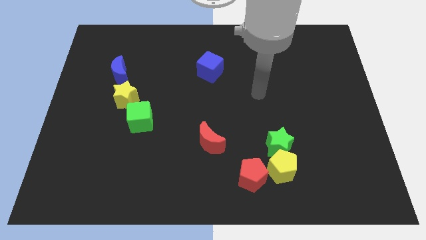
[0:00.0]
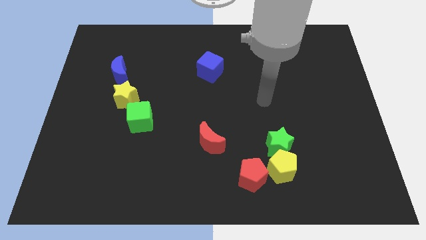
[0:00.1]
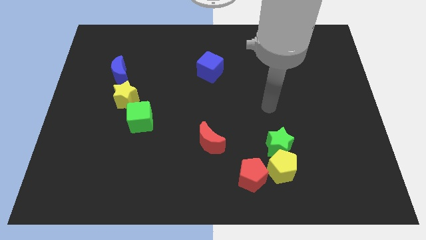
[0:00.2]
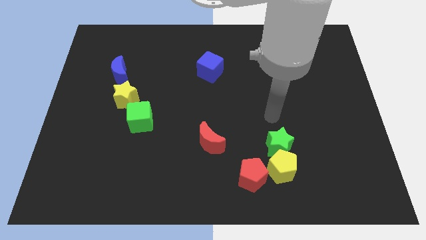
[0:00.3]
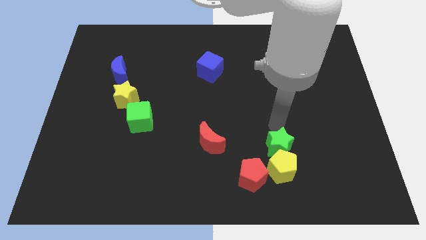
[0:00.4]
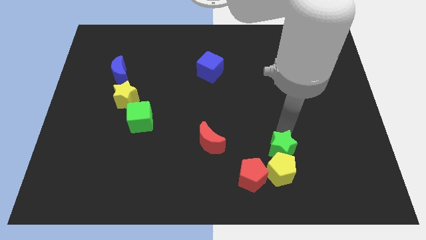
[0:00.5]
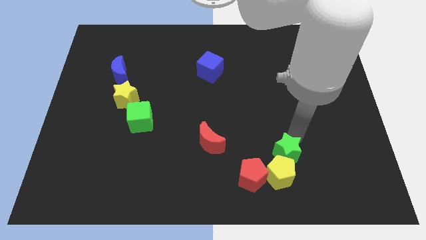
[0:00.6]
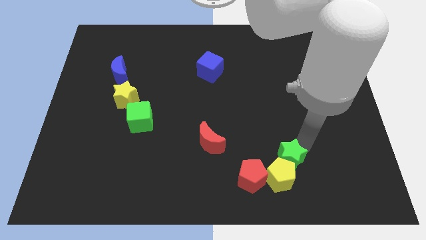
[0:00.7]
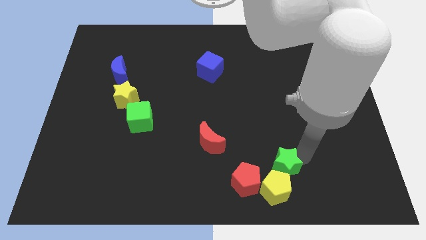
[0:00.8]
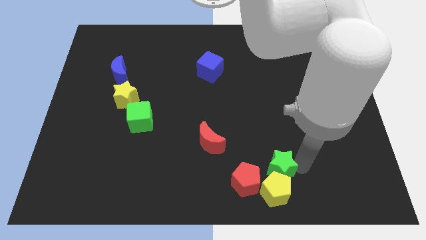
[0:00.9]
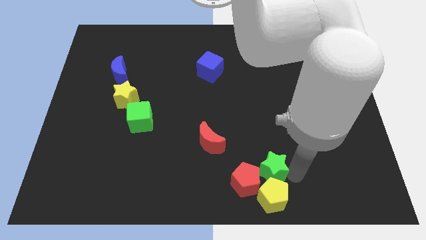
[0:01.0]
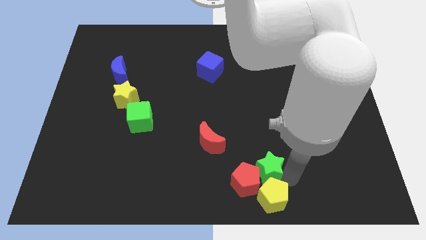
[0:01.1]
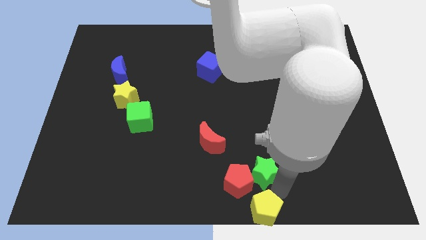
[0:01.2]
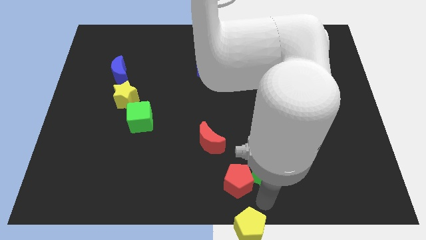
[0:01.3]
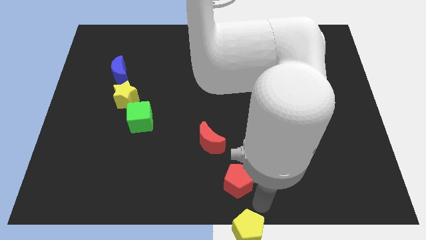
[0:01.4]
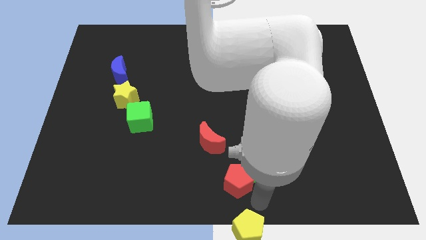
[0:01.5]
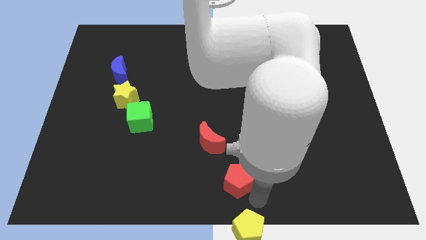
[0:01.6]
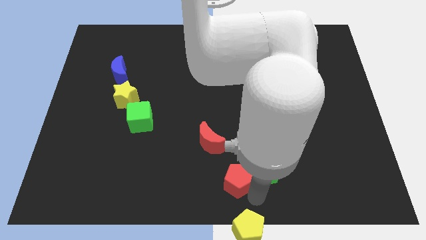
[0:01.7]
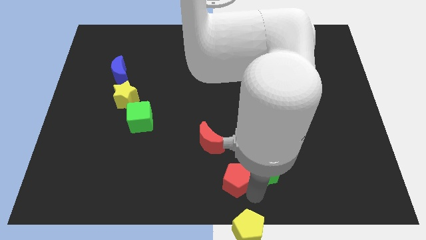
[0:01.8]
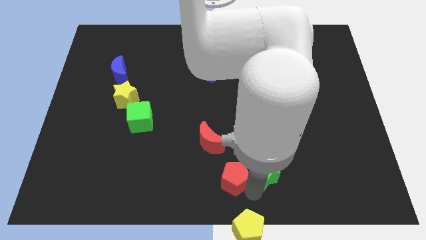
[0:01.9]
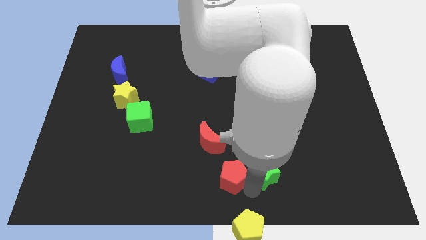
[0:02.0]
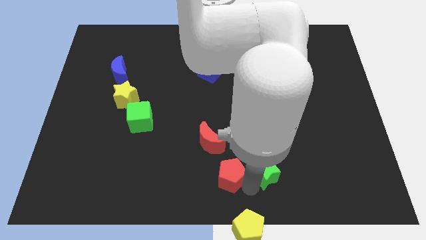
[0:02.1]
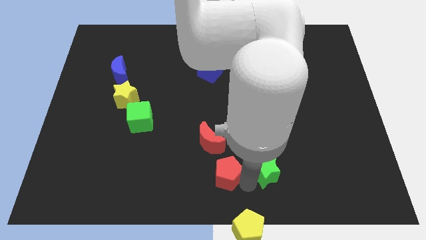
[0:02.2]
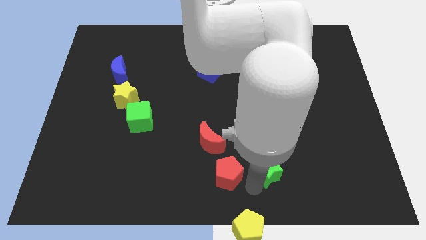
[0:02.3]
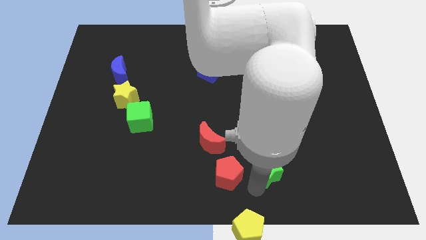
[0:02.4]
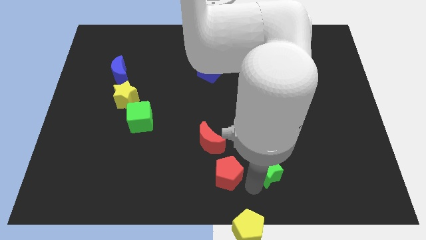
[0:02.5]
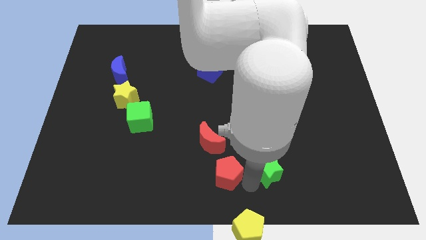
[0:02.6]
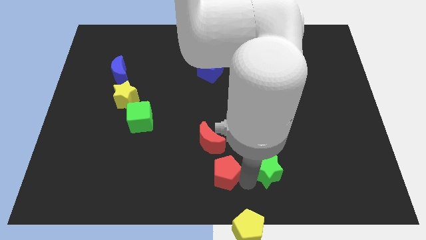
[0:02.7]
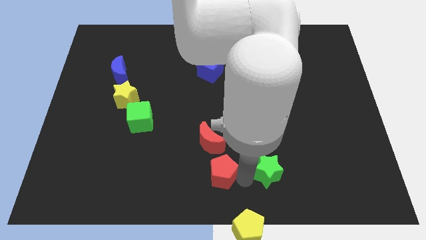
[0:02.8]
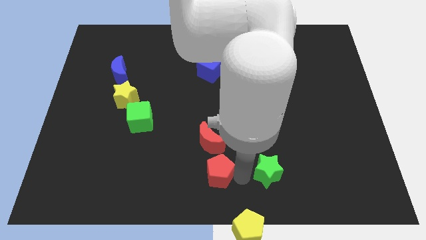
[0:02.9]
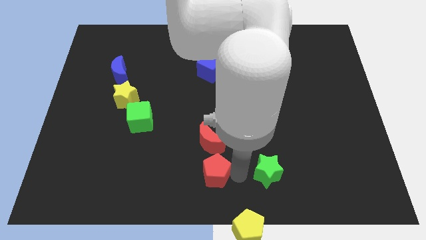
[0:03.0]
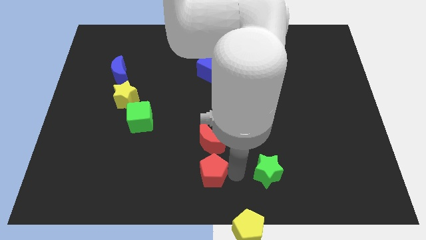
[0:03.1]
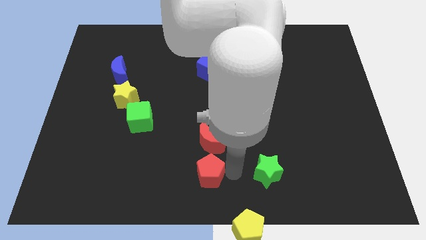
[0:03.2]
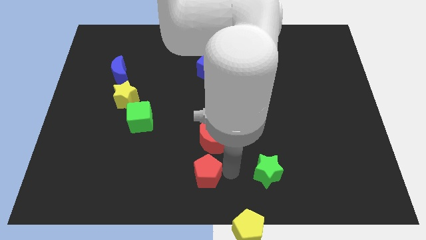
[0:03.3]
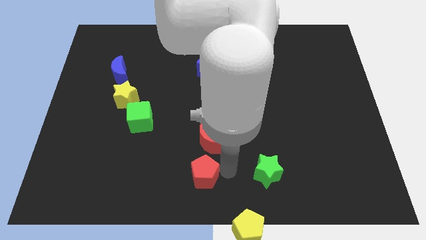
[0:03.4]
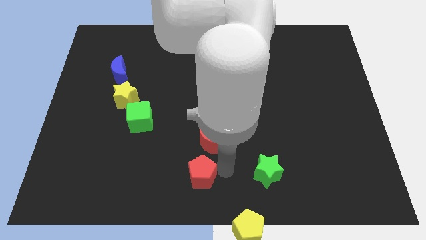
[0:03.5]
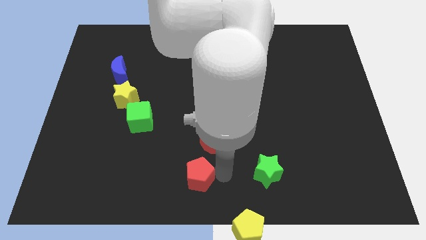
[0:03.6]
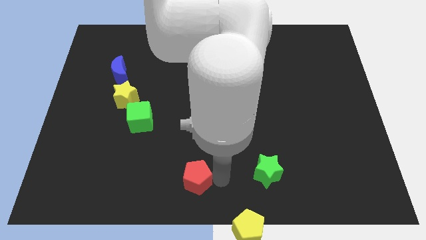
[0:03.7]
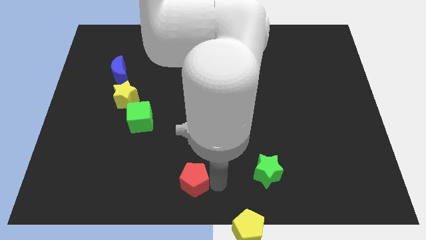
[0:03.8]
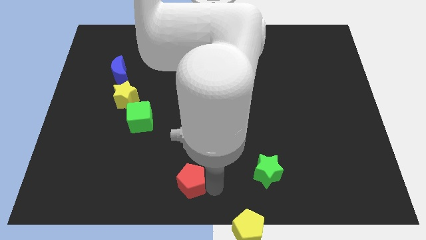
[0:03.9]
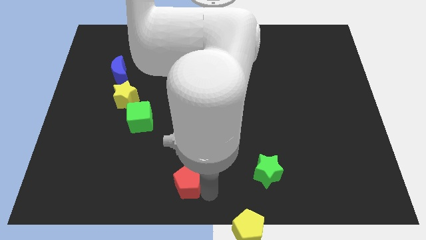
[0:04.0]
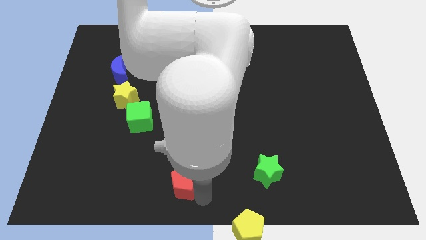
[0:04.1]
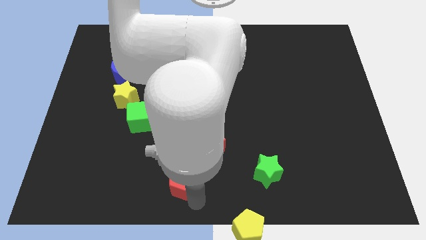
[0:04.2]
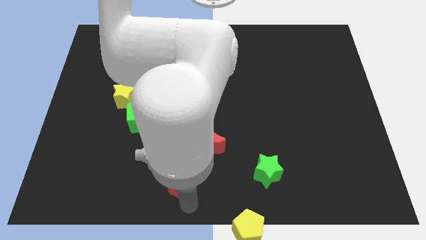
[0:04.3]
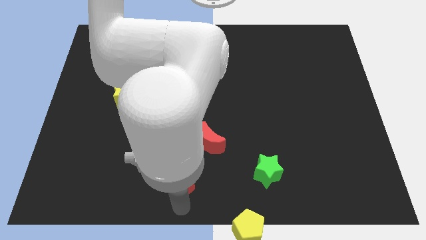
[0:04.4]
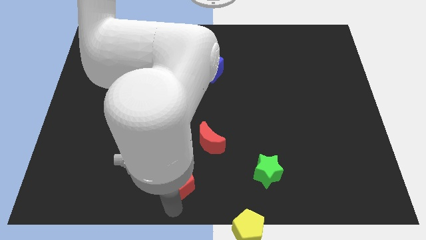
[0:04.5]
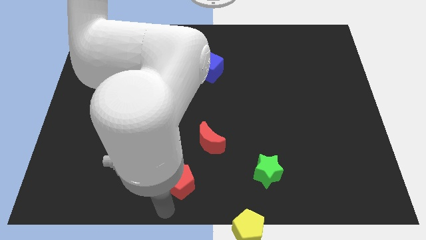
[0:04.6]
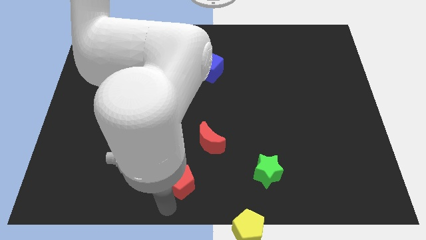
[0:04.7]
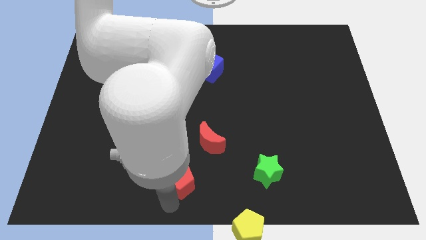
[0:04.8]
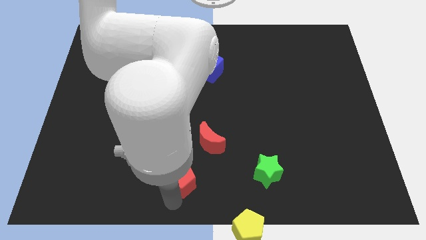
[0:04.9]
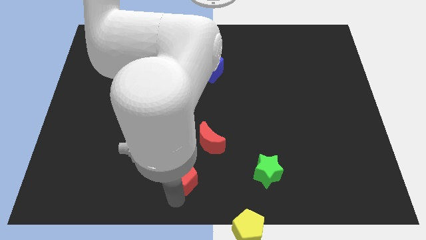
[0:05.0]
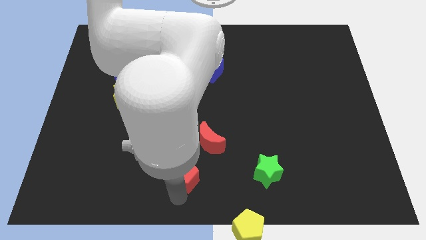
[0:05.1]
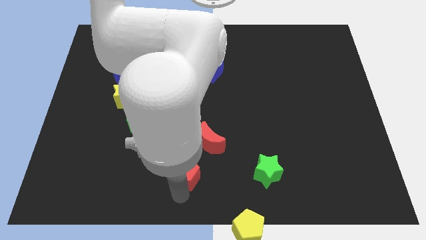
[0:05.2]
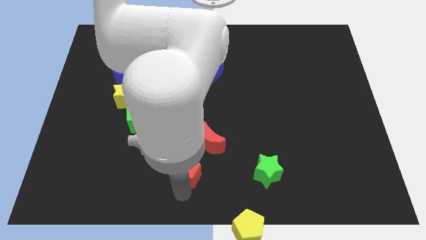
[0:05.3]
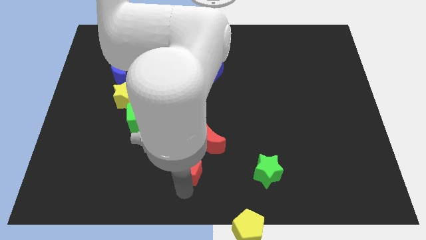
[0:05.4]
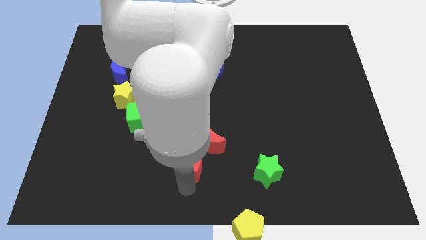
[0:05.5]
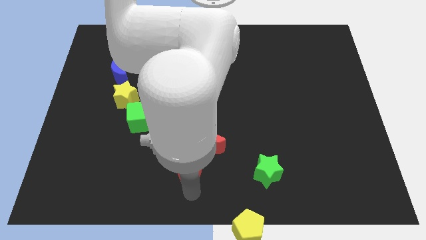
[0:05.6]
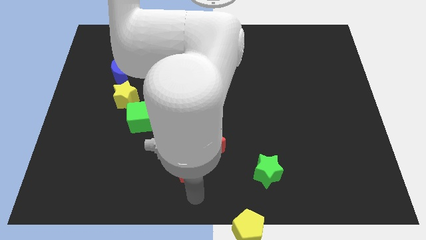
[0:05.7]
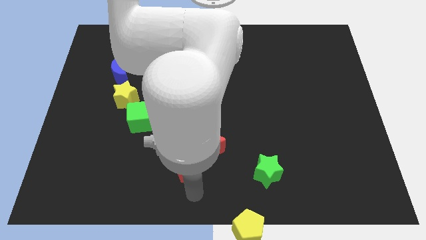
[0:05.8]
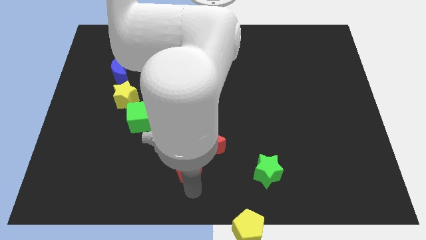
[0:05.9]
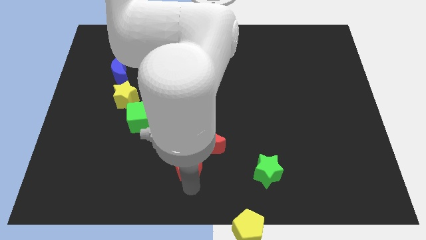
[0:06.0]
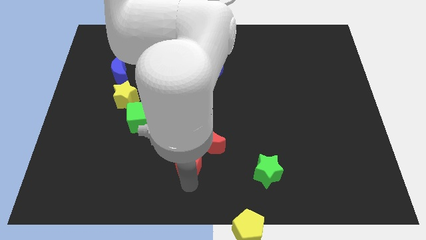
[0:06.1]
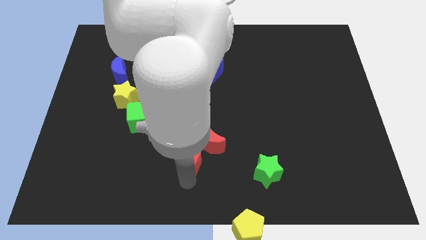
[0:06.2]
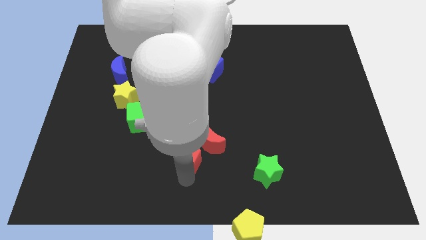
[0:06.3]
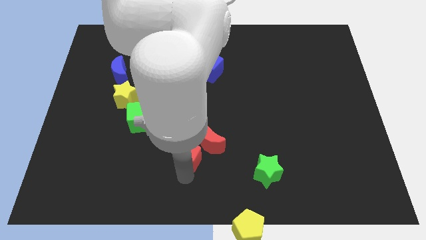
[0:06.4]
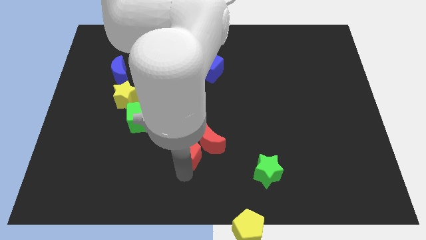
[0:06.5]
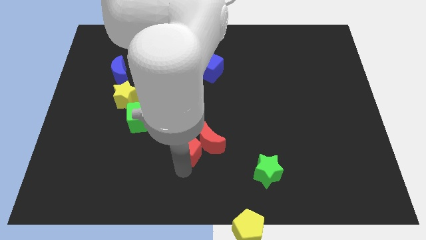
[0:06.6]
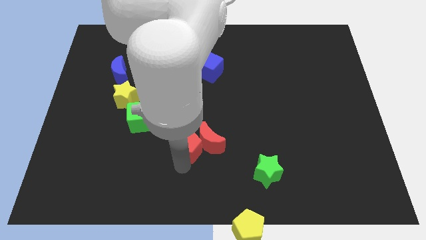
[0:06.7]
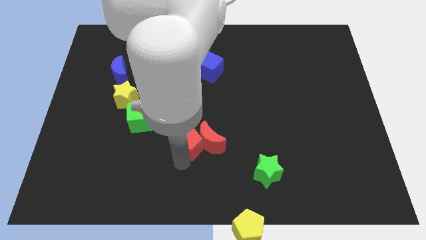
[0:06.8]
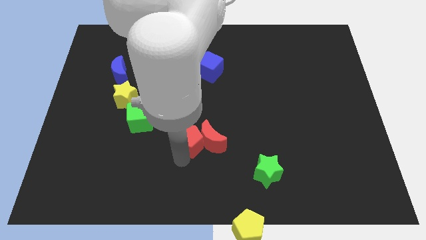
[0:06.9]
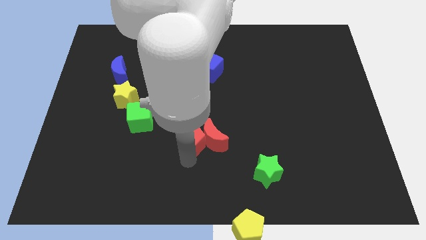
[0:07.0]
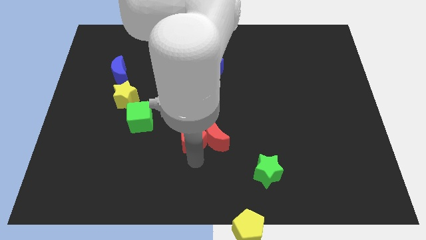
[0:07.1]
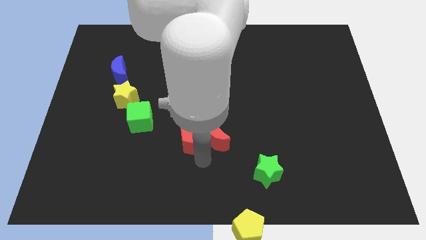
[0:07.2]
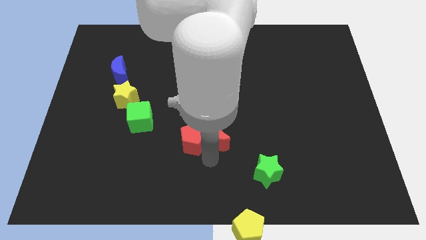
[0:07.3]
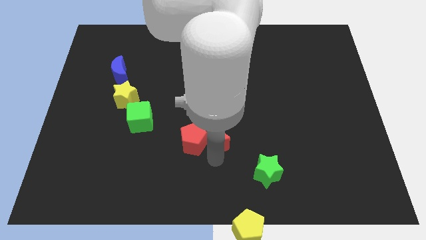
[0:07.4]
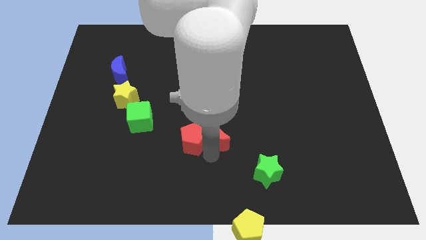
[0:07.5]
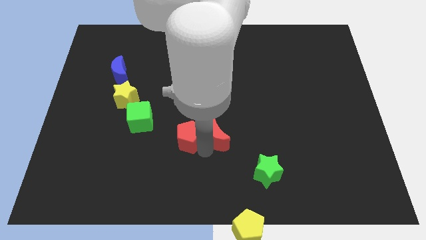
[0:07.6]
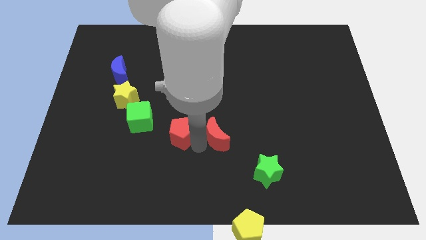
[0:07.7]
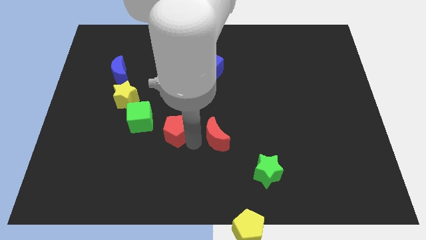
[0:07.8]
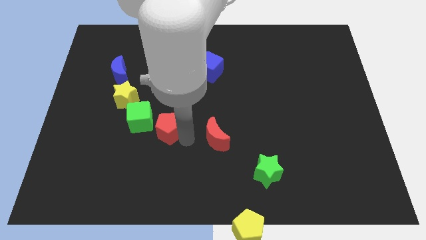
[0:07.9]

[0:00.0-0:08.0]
slide the red pentagon up and to the left diagonally

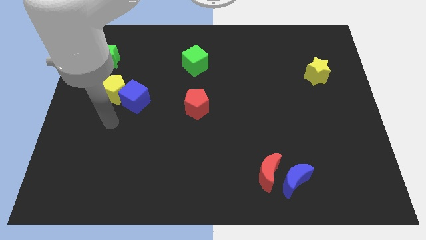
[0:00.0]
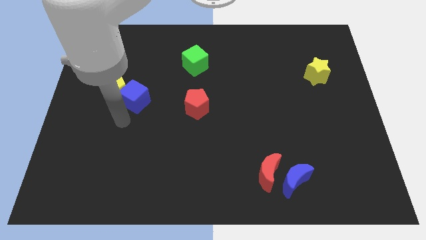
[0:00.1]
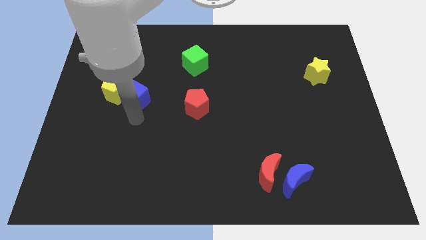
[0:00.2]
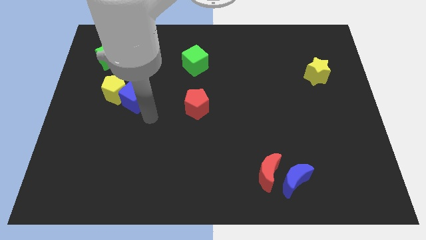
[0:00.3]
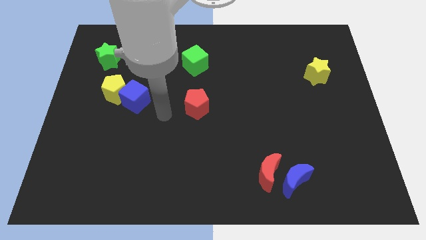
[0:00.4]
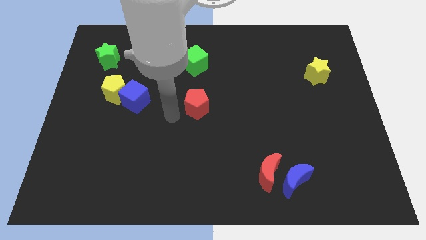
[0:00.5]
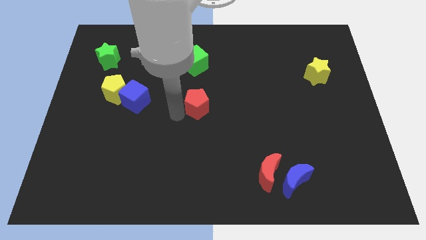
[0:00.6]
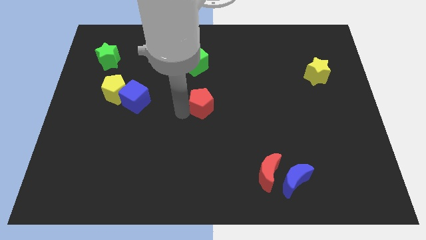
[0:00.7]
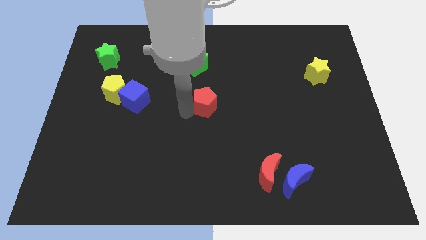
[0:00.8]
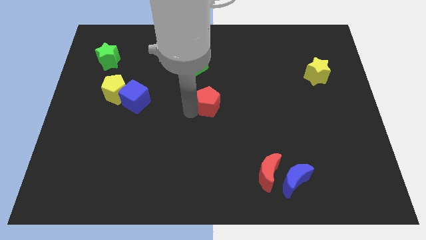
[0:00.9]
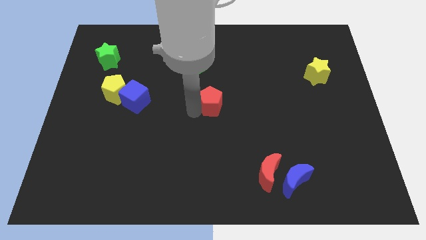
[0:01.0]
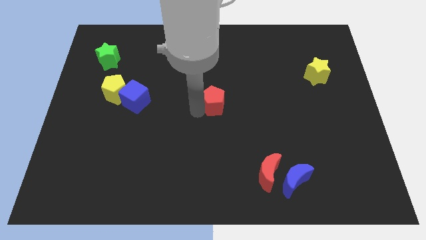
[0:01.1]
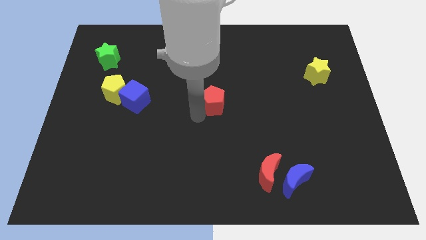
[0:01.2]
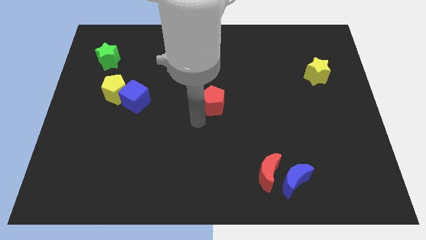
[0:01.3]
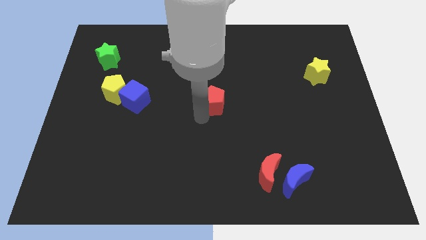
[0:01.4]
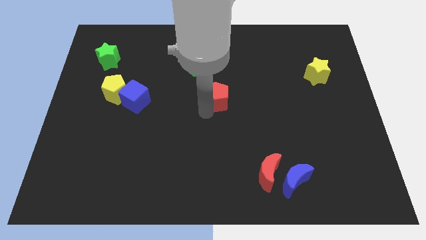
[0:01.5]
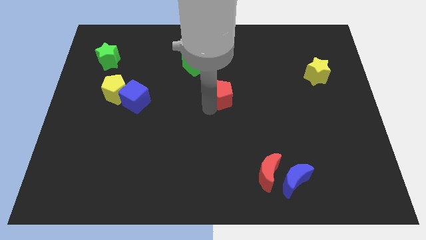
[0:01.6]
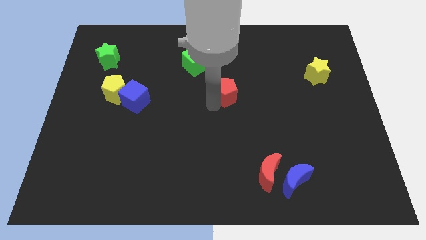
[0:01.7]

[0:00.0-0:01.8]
slightly move the red pentagon upwards and right
